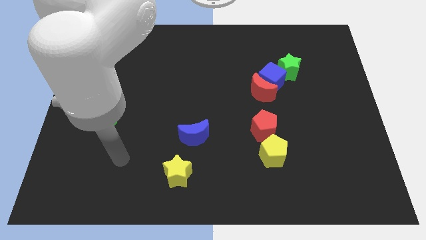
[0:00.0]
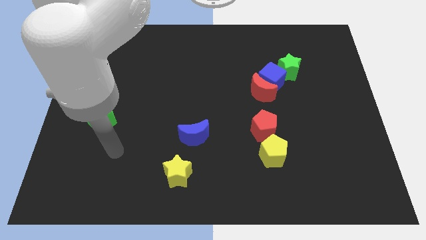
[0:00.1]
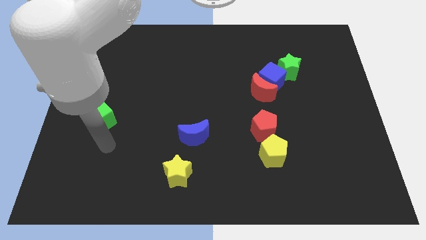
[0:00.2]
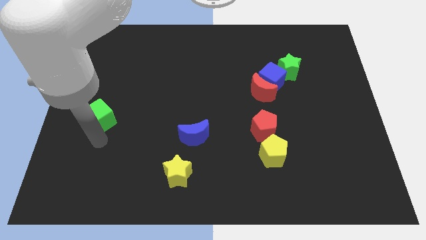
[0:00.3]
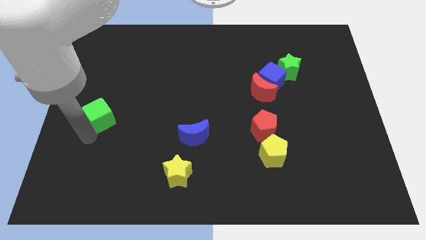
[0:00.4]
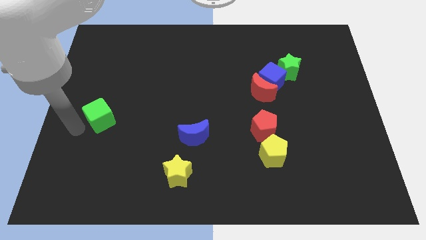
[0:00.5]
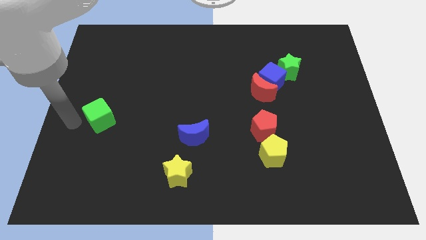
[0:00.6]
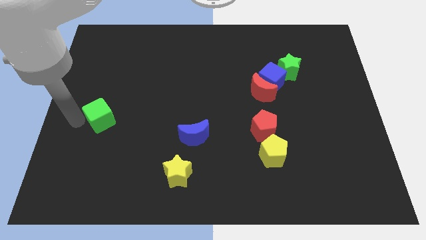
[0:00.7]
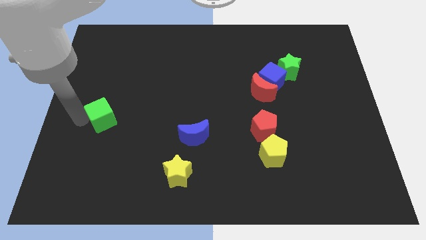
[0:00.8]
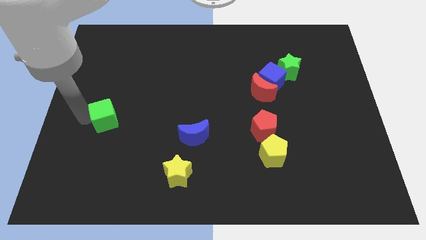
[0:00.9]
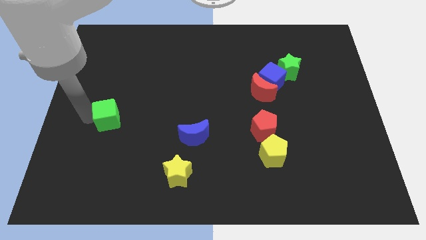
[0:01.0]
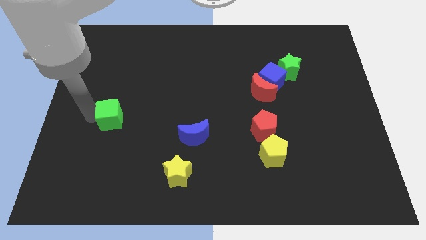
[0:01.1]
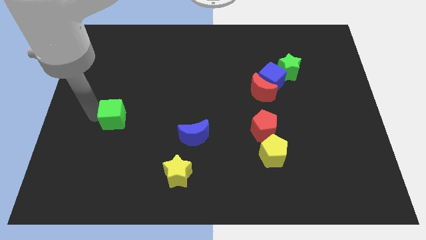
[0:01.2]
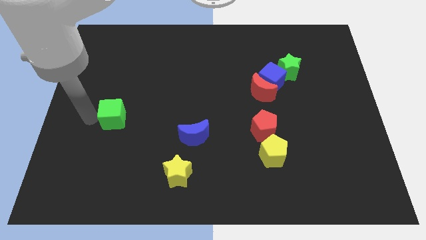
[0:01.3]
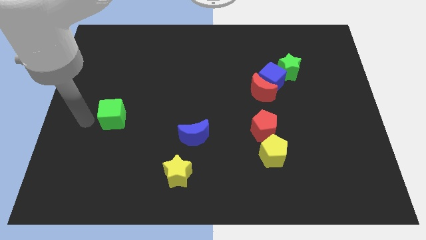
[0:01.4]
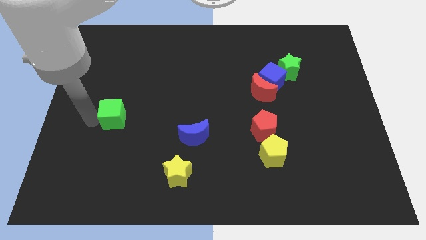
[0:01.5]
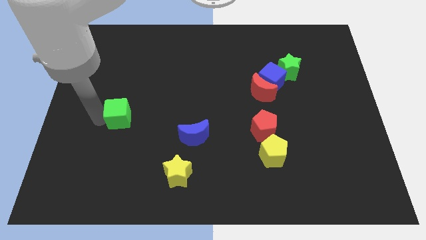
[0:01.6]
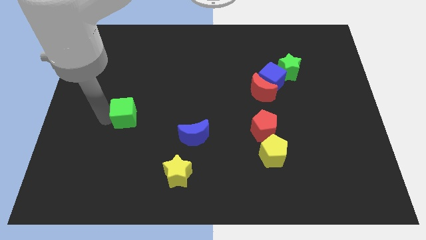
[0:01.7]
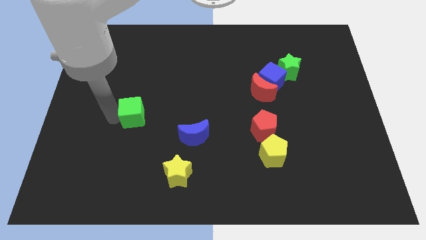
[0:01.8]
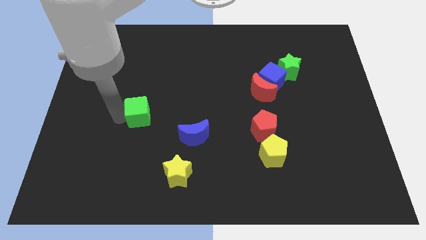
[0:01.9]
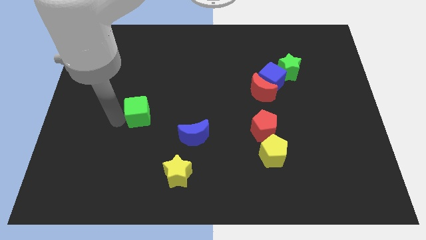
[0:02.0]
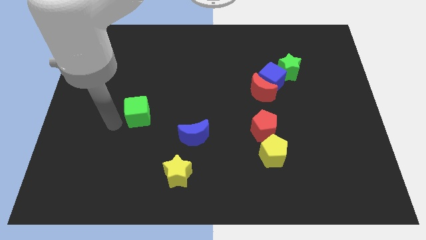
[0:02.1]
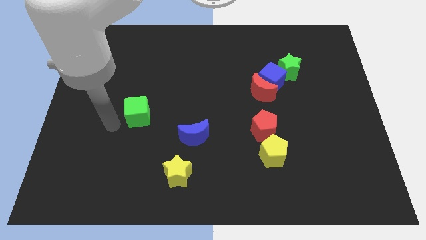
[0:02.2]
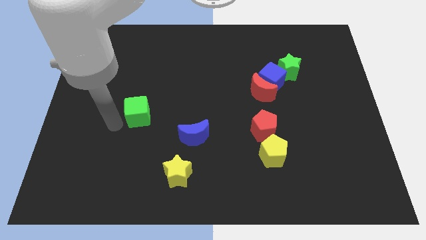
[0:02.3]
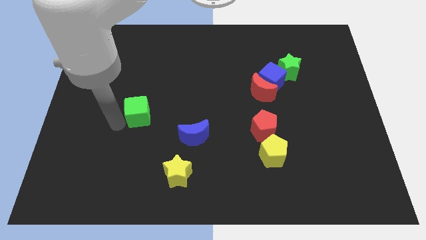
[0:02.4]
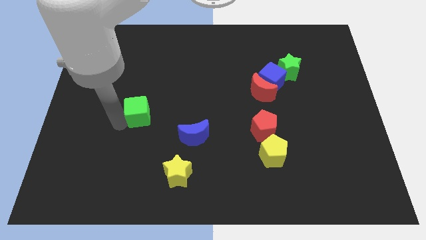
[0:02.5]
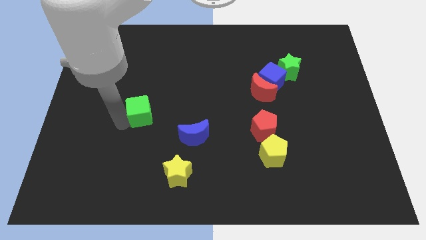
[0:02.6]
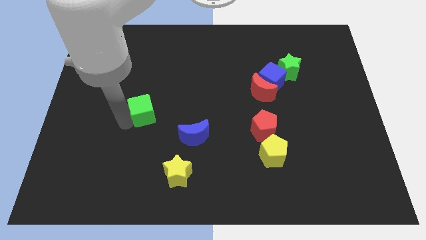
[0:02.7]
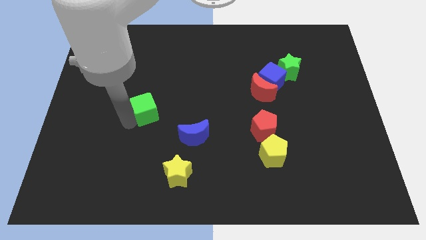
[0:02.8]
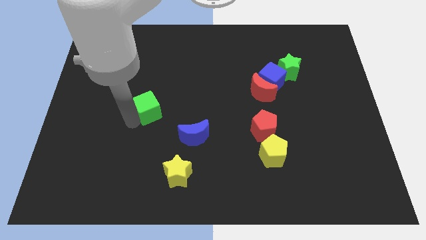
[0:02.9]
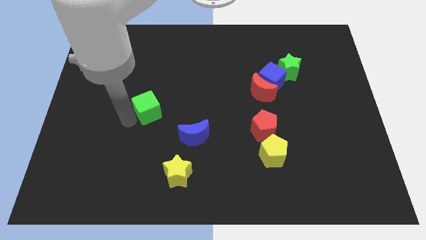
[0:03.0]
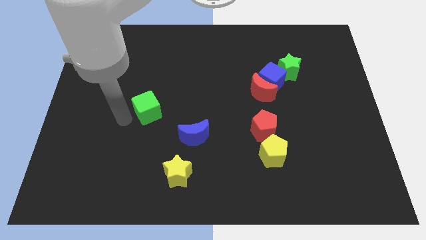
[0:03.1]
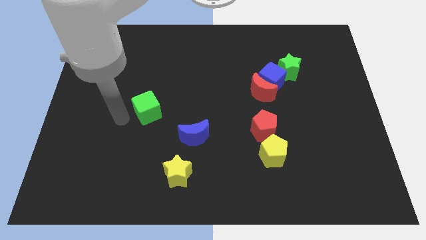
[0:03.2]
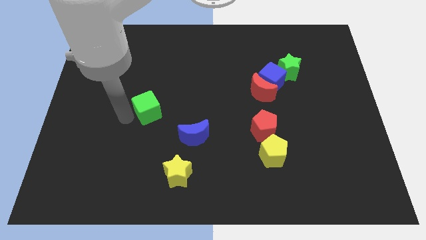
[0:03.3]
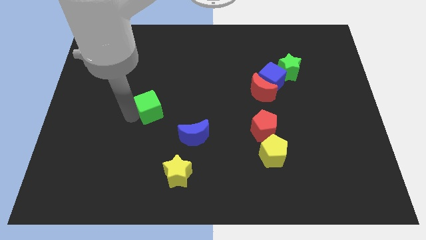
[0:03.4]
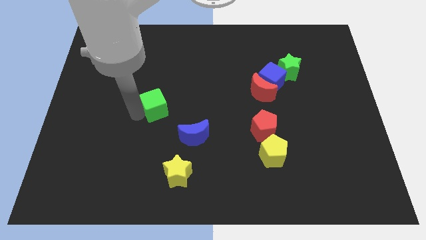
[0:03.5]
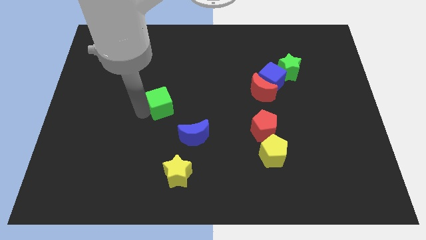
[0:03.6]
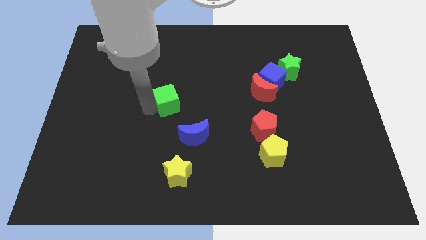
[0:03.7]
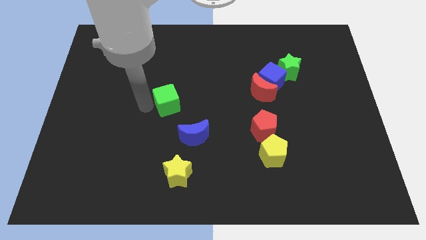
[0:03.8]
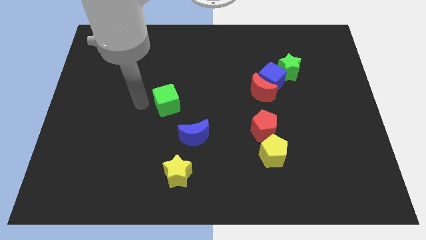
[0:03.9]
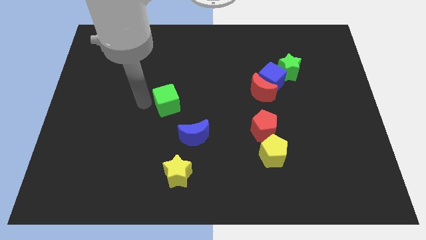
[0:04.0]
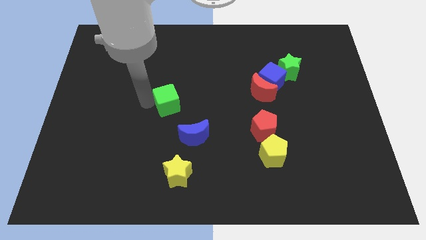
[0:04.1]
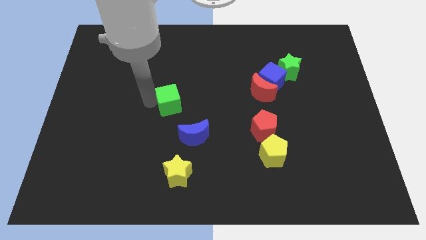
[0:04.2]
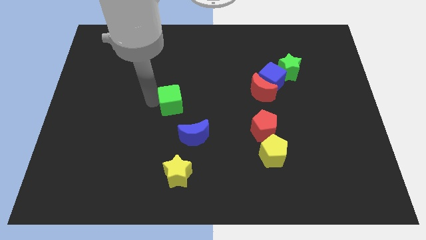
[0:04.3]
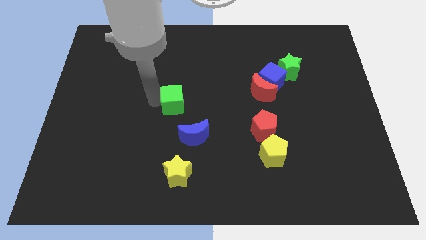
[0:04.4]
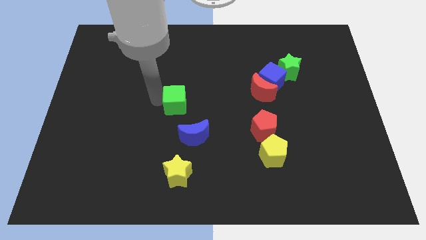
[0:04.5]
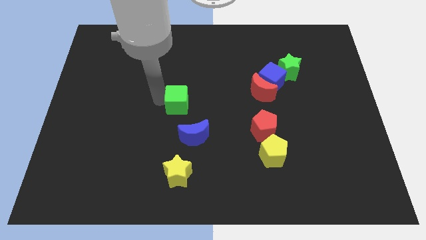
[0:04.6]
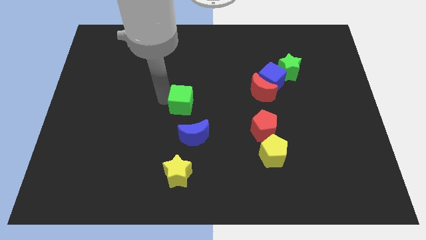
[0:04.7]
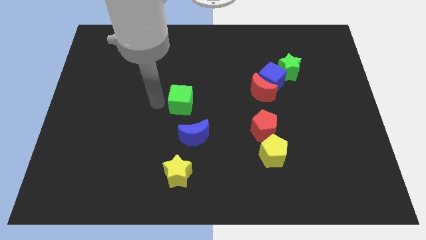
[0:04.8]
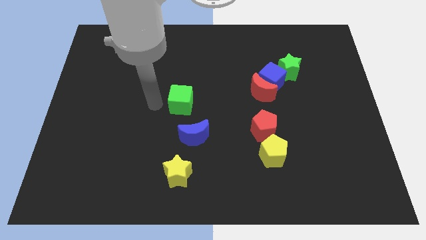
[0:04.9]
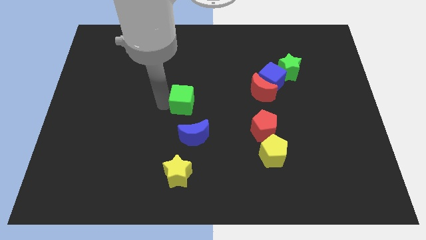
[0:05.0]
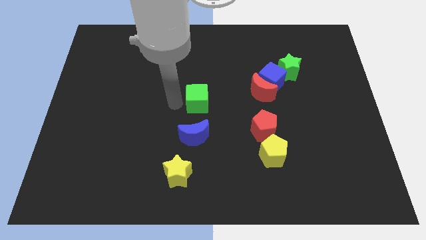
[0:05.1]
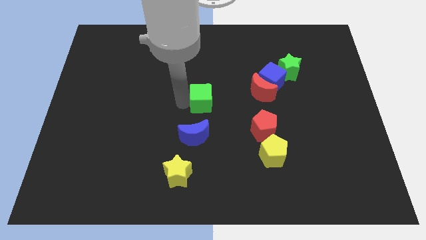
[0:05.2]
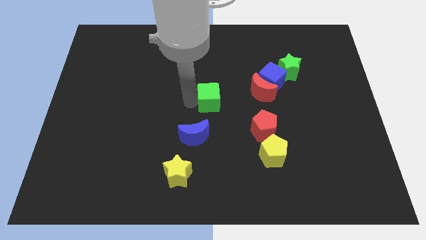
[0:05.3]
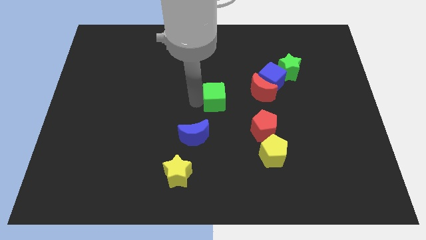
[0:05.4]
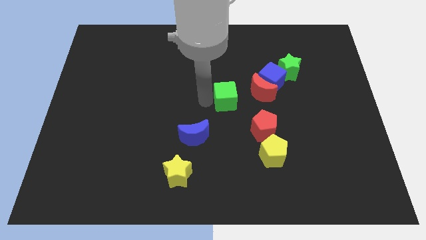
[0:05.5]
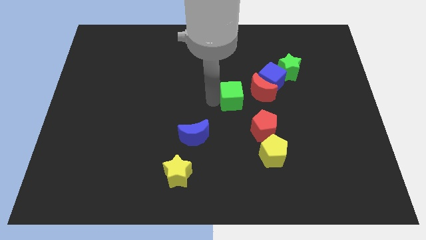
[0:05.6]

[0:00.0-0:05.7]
move the green cube to the bottom left of the blue cube

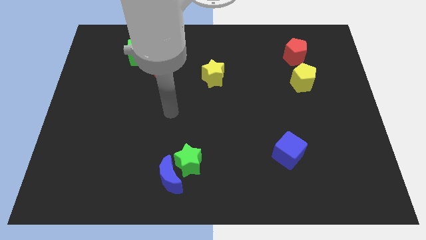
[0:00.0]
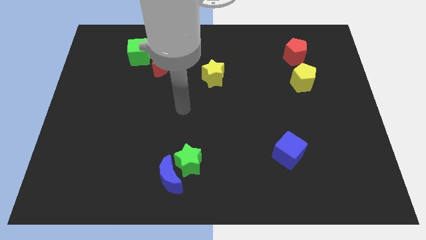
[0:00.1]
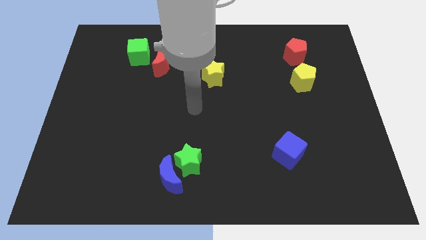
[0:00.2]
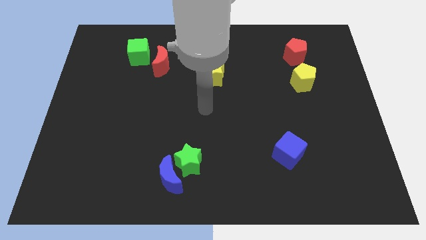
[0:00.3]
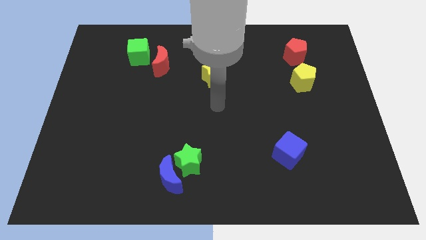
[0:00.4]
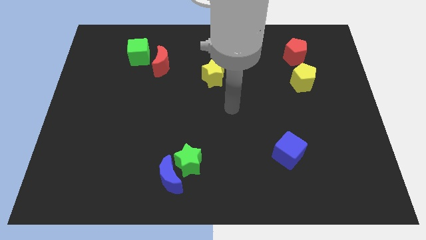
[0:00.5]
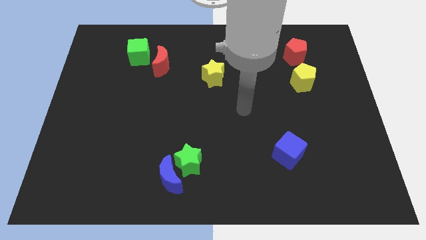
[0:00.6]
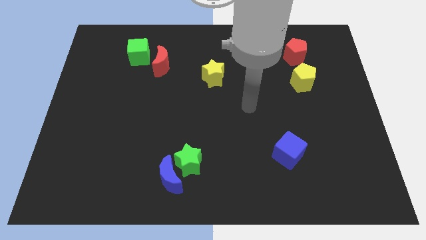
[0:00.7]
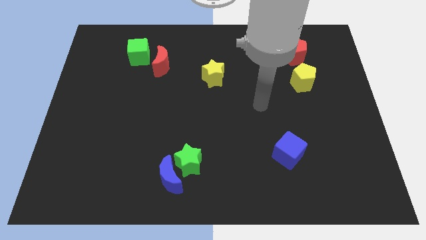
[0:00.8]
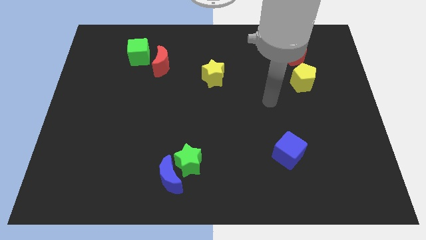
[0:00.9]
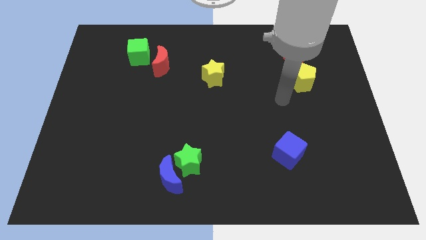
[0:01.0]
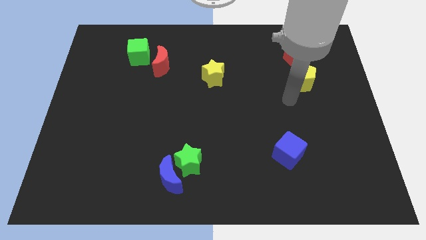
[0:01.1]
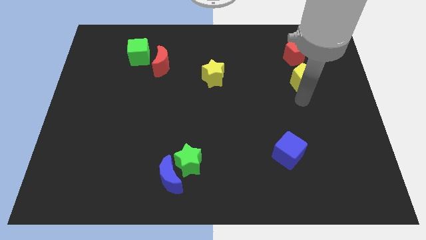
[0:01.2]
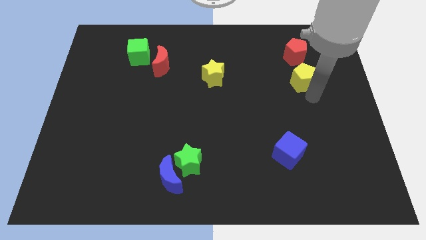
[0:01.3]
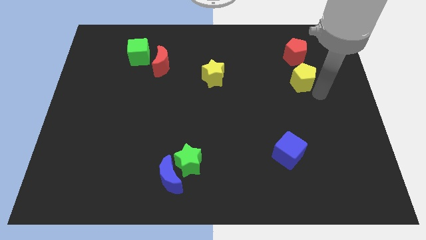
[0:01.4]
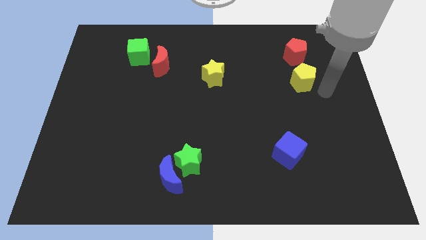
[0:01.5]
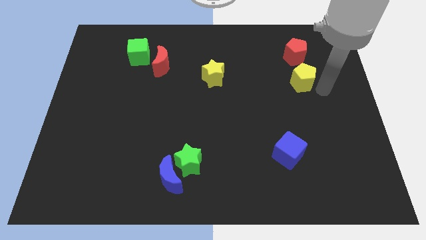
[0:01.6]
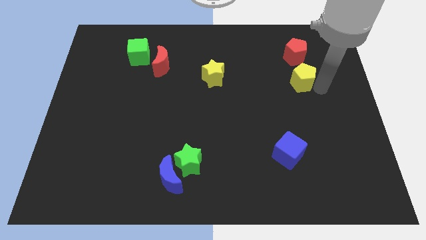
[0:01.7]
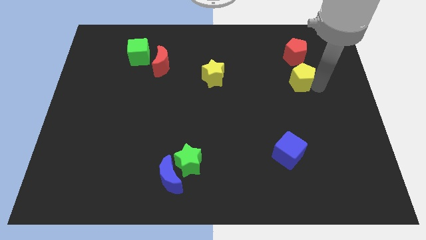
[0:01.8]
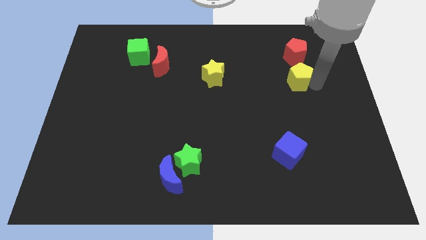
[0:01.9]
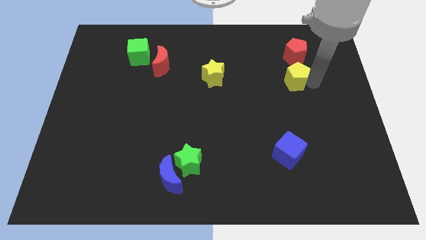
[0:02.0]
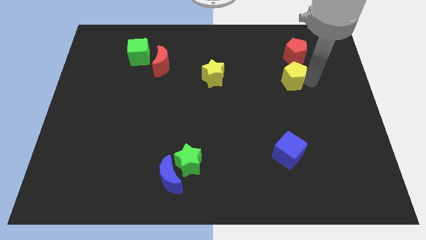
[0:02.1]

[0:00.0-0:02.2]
push the yellow pentagon diagonally down and to the left of the red pentagon
